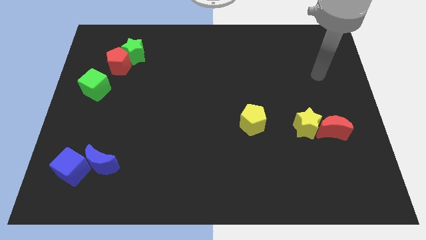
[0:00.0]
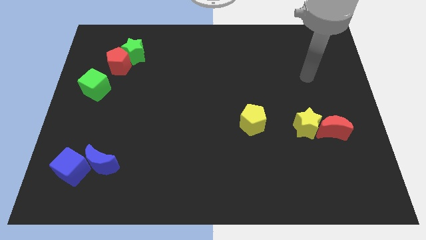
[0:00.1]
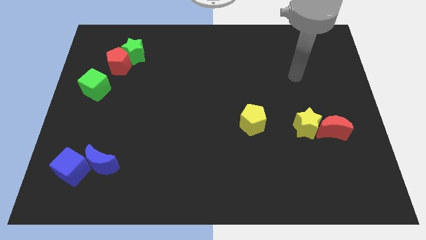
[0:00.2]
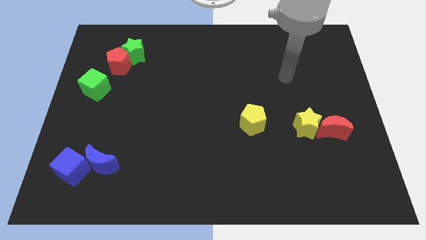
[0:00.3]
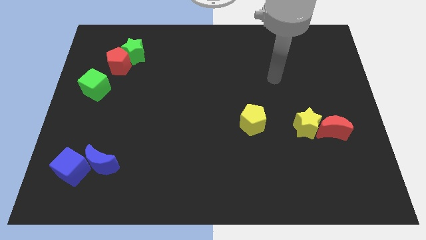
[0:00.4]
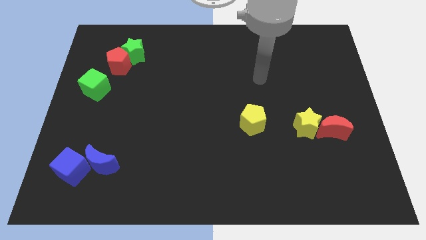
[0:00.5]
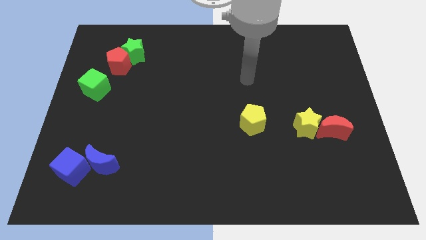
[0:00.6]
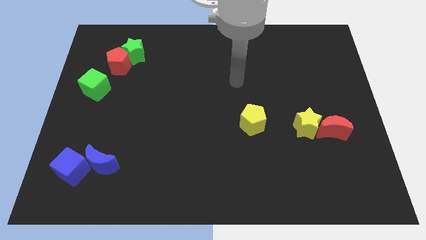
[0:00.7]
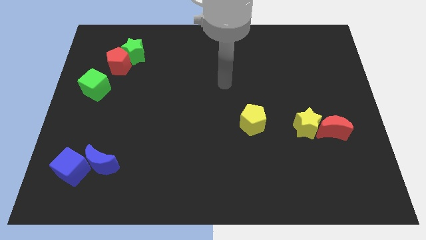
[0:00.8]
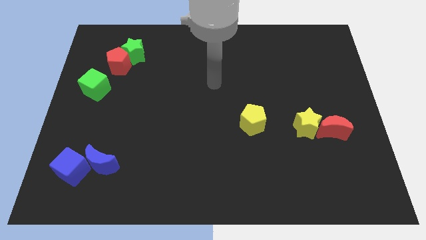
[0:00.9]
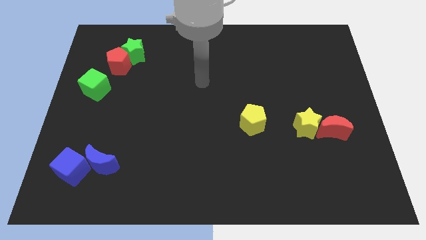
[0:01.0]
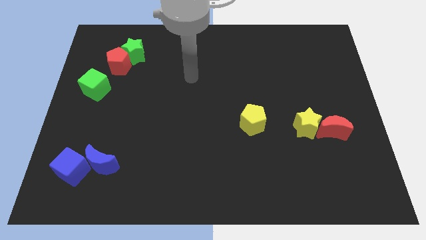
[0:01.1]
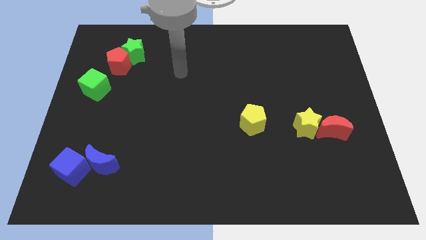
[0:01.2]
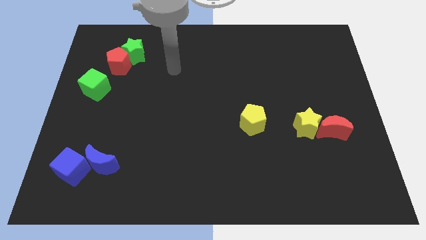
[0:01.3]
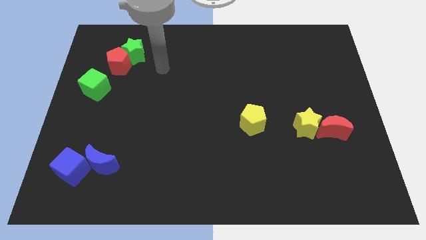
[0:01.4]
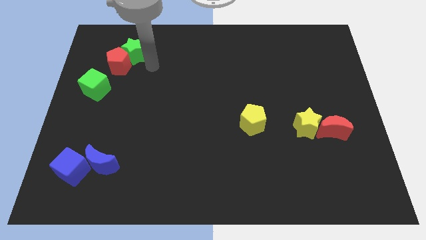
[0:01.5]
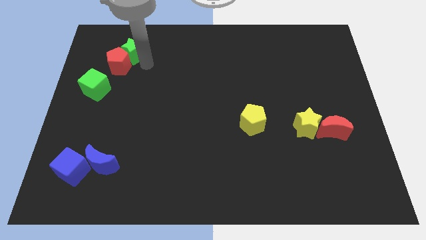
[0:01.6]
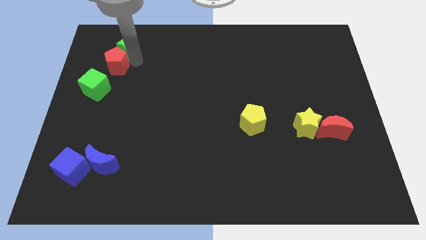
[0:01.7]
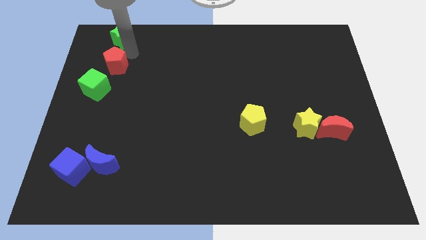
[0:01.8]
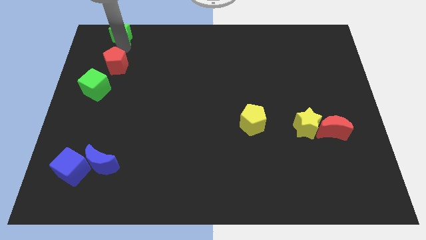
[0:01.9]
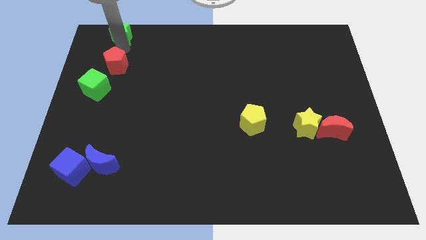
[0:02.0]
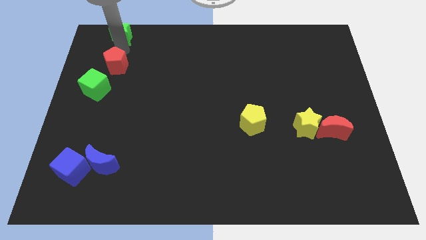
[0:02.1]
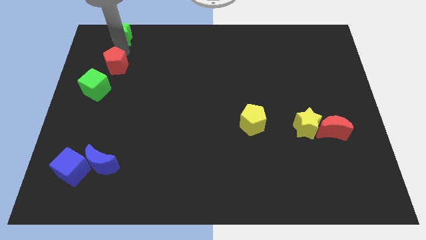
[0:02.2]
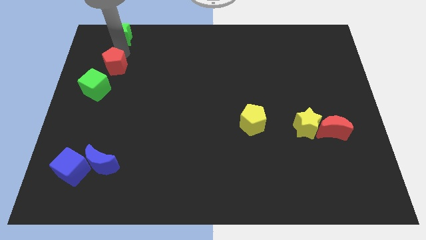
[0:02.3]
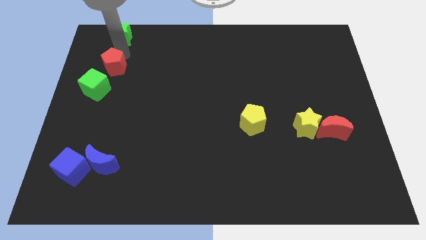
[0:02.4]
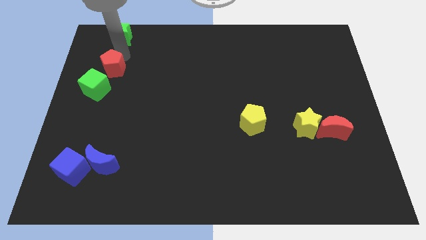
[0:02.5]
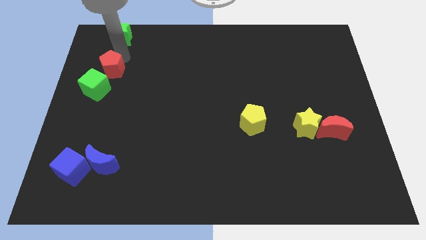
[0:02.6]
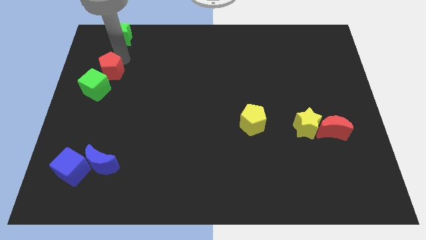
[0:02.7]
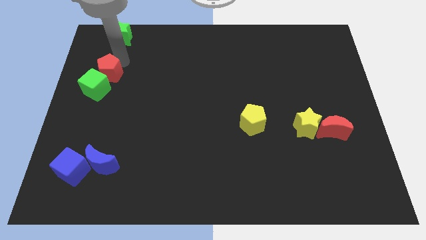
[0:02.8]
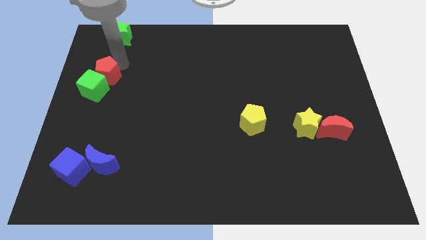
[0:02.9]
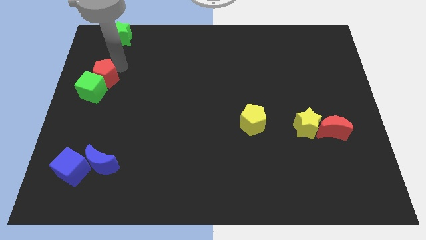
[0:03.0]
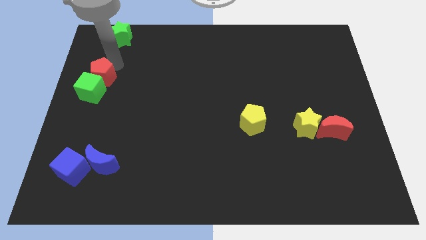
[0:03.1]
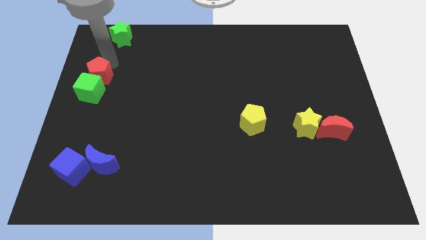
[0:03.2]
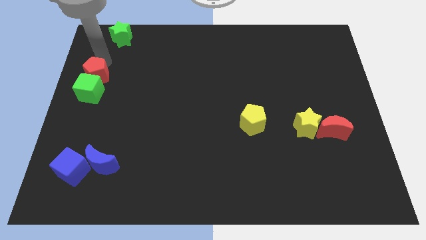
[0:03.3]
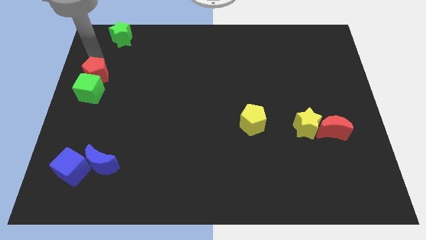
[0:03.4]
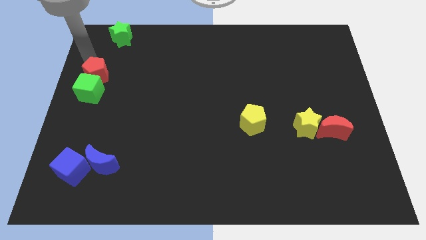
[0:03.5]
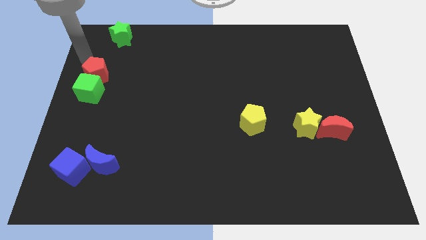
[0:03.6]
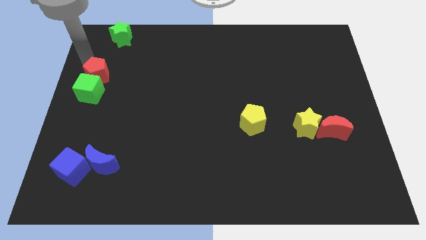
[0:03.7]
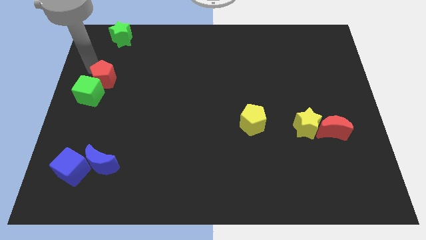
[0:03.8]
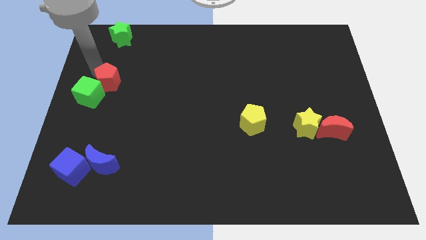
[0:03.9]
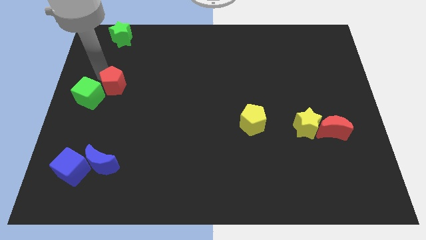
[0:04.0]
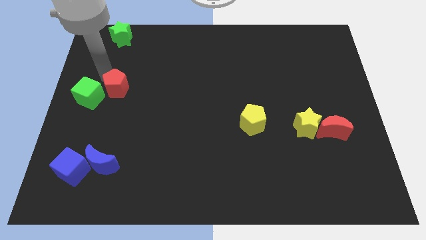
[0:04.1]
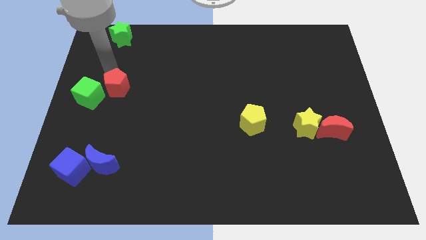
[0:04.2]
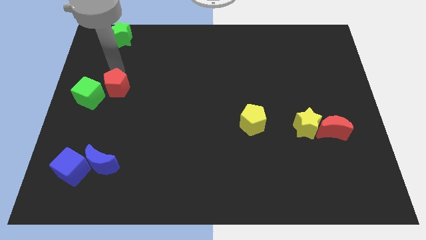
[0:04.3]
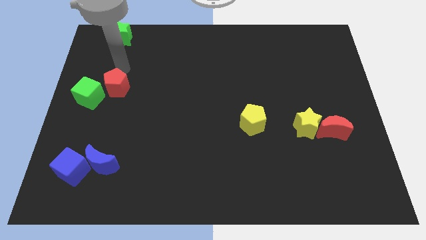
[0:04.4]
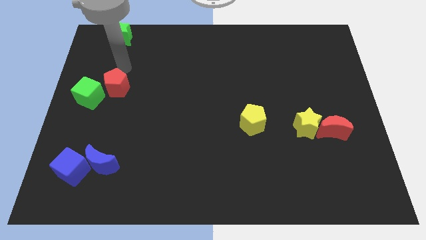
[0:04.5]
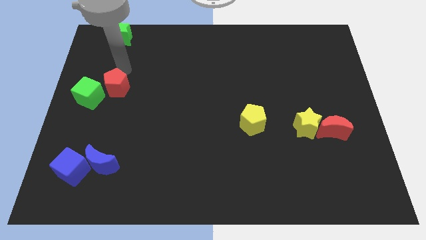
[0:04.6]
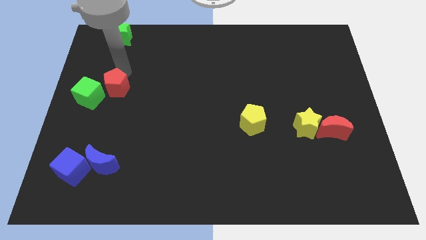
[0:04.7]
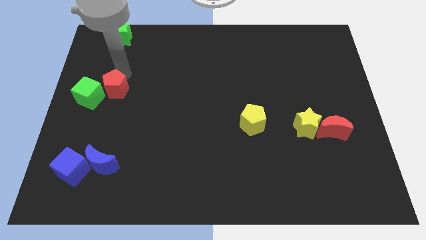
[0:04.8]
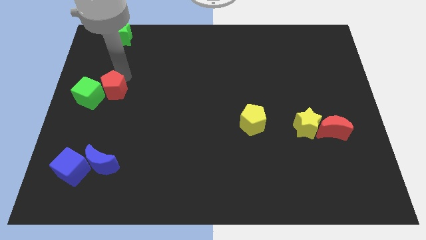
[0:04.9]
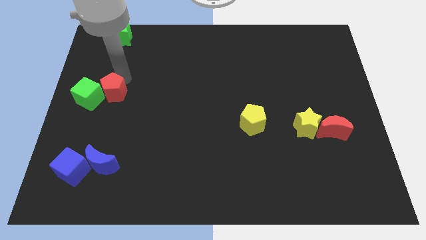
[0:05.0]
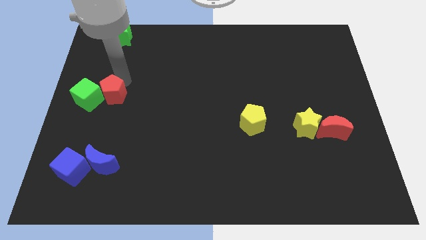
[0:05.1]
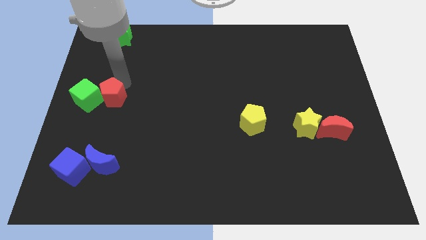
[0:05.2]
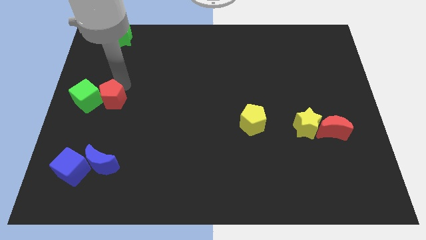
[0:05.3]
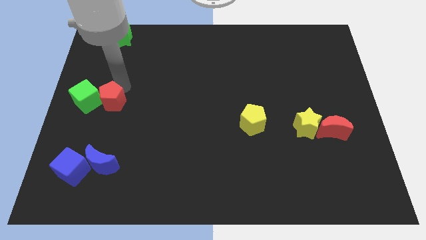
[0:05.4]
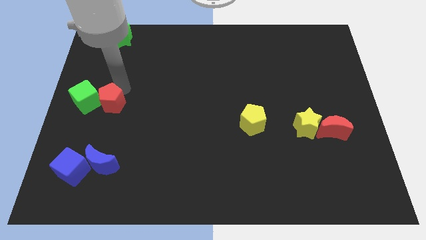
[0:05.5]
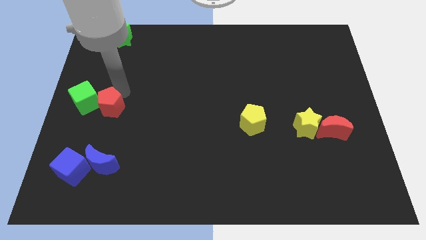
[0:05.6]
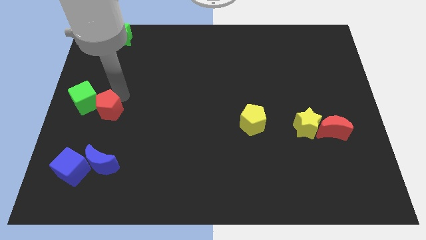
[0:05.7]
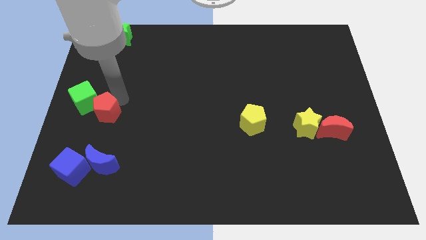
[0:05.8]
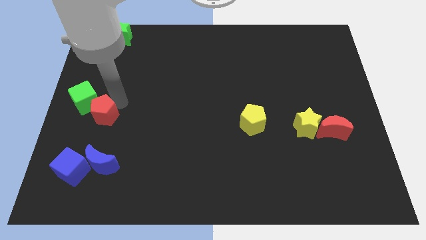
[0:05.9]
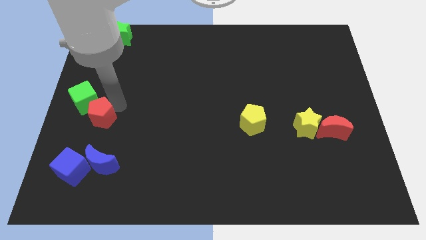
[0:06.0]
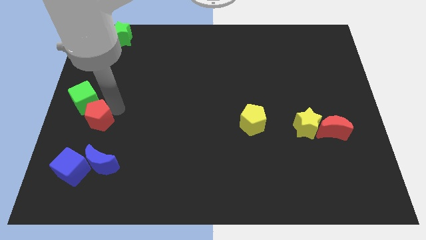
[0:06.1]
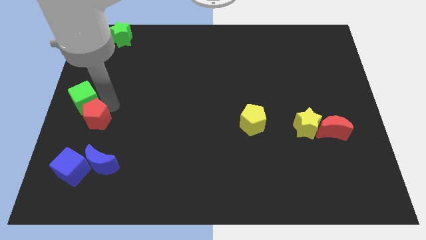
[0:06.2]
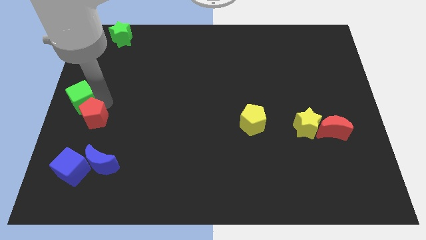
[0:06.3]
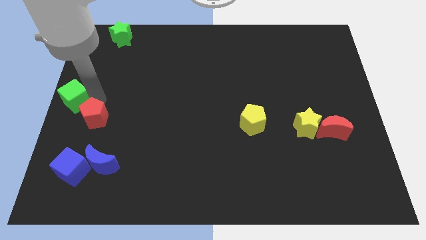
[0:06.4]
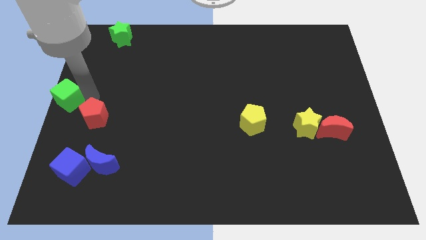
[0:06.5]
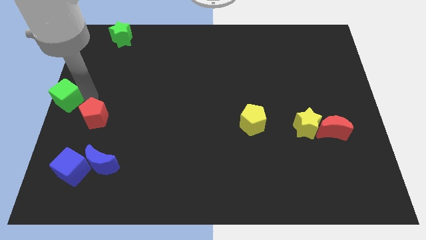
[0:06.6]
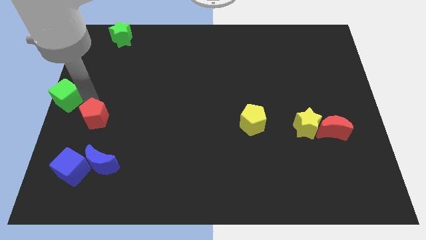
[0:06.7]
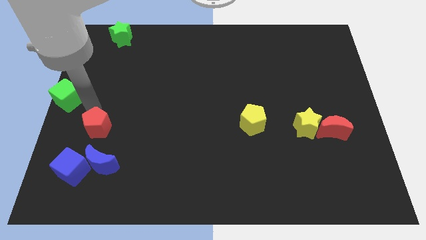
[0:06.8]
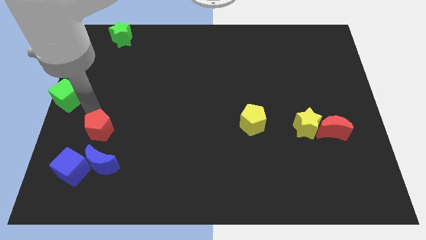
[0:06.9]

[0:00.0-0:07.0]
put the red pentagon diagonally up and to the right of the blue cube

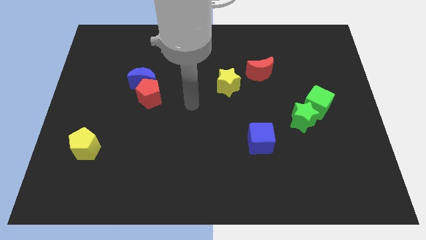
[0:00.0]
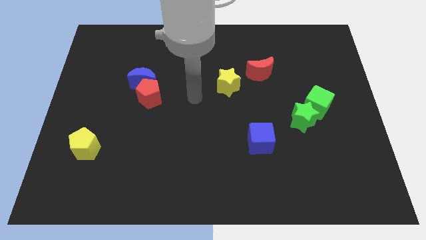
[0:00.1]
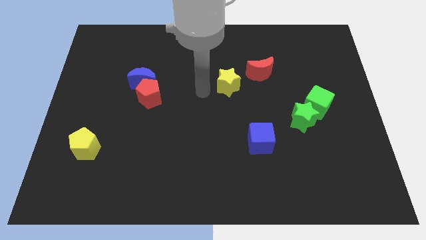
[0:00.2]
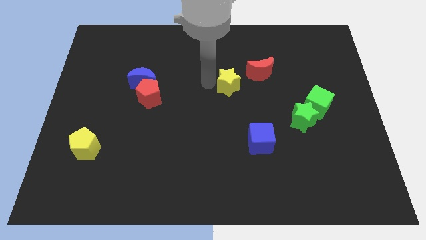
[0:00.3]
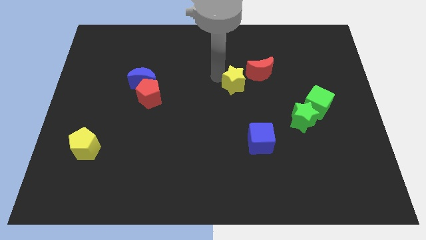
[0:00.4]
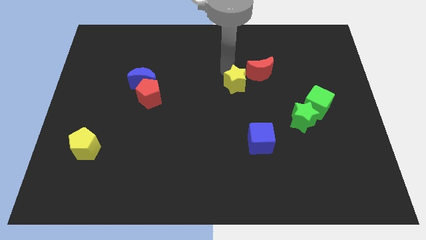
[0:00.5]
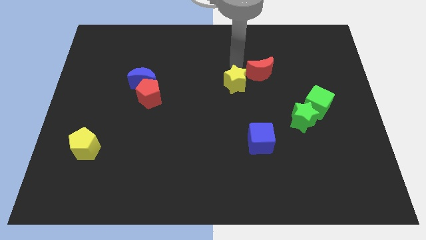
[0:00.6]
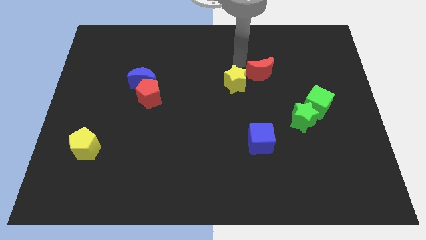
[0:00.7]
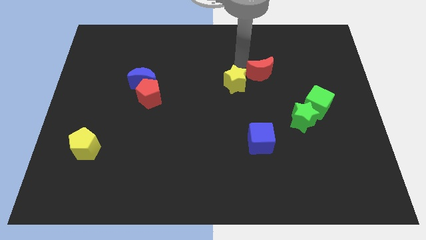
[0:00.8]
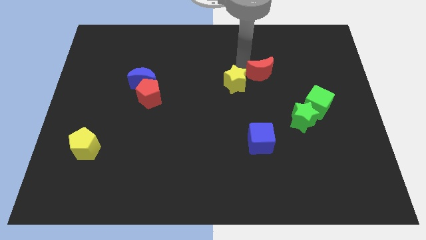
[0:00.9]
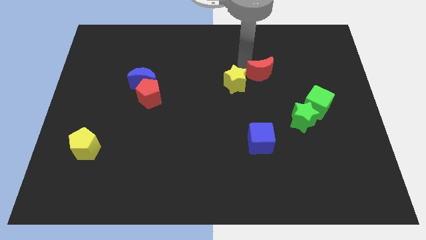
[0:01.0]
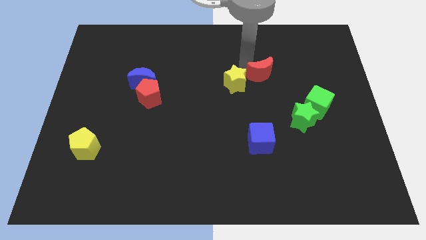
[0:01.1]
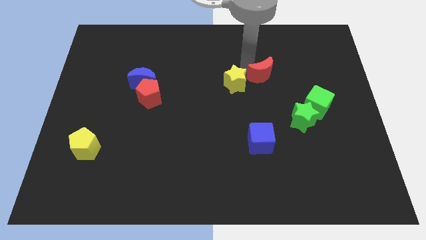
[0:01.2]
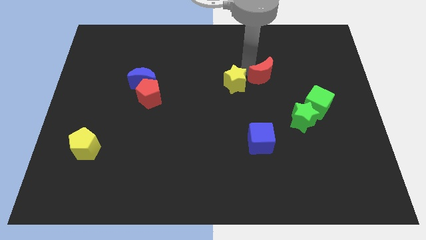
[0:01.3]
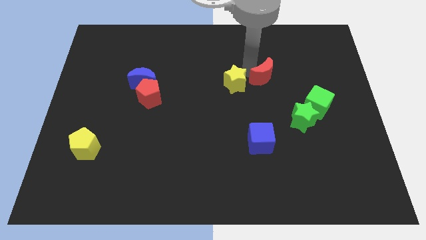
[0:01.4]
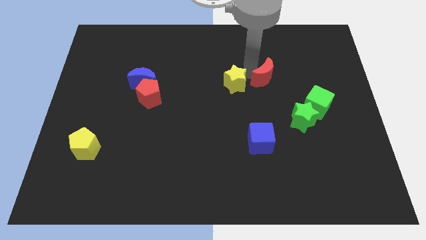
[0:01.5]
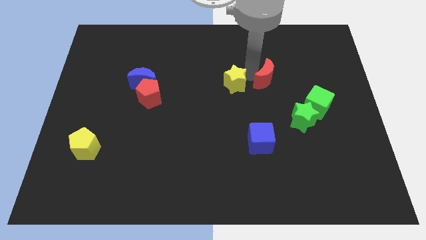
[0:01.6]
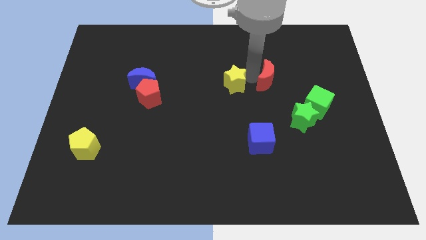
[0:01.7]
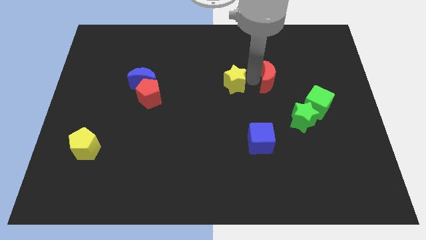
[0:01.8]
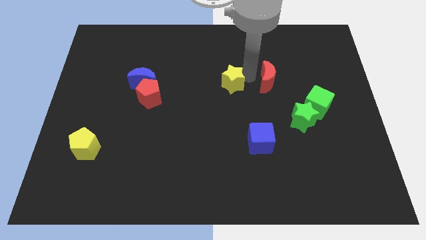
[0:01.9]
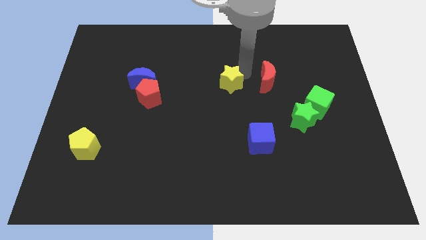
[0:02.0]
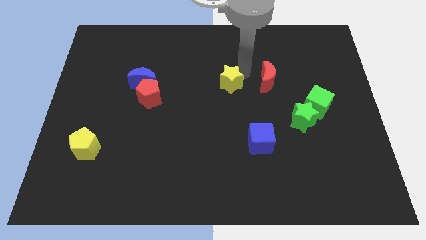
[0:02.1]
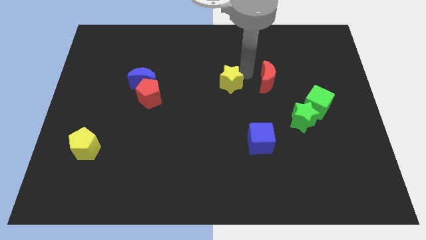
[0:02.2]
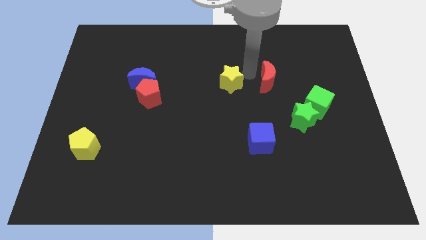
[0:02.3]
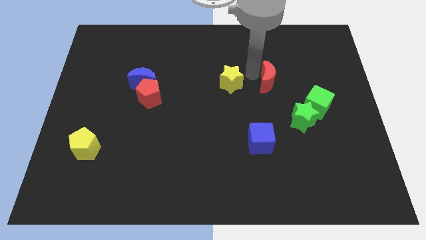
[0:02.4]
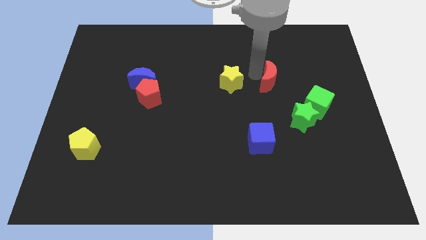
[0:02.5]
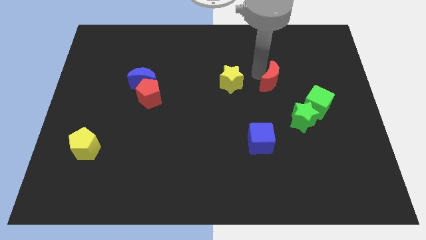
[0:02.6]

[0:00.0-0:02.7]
slide the red moon to the top left side of the green cube
